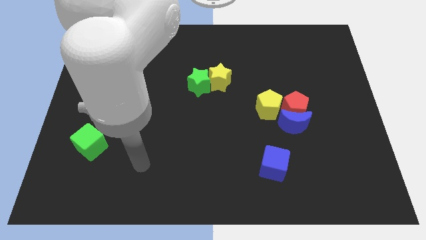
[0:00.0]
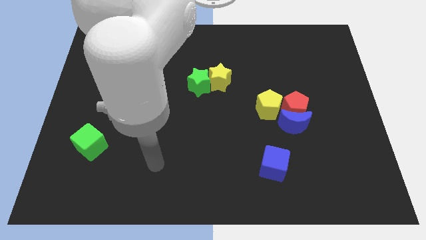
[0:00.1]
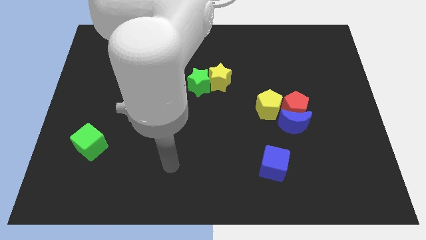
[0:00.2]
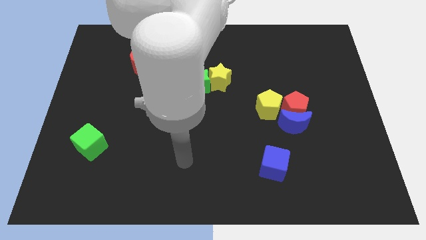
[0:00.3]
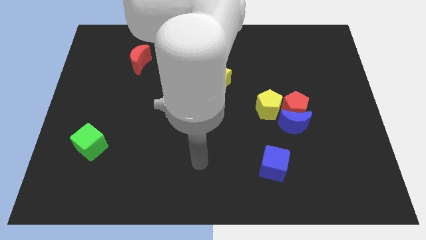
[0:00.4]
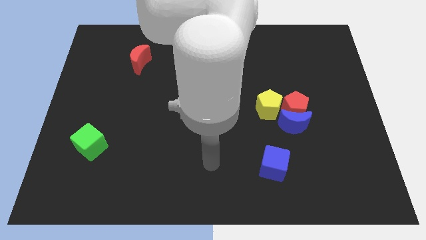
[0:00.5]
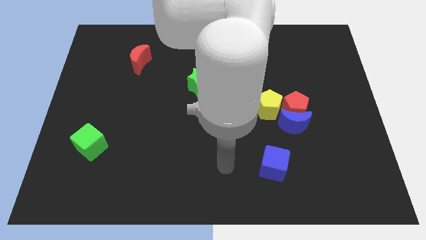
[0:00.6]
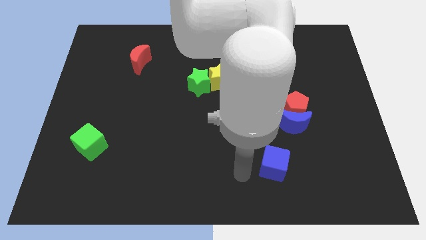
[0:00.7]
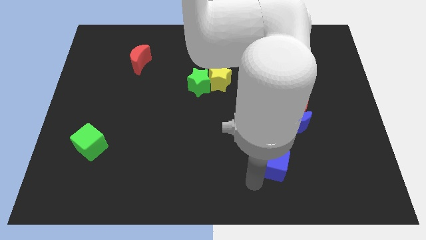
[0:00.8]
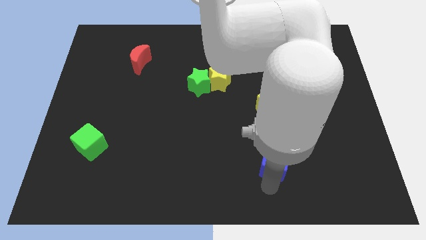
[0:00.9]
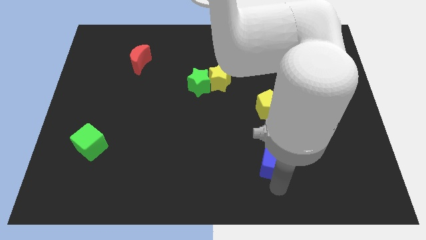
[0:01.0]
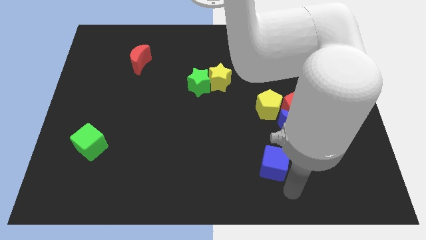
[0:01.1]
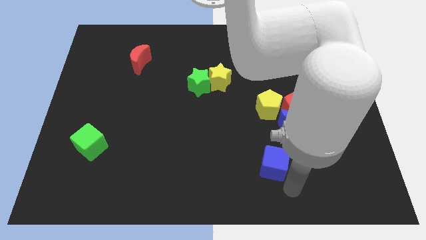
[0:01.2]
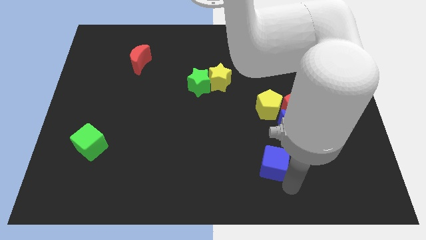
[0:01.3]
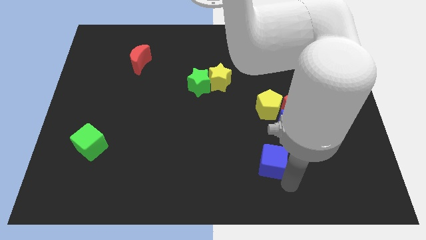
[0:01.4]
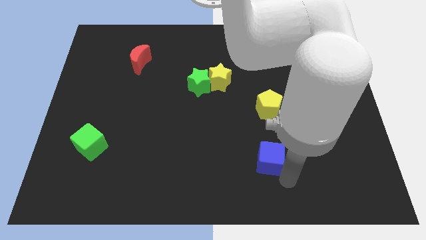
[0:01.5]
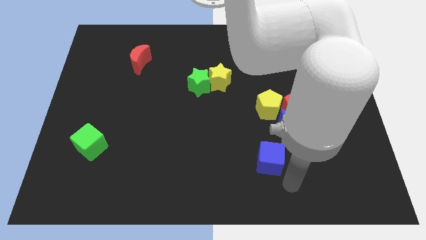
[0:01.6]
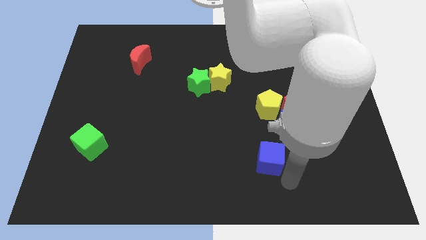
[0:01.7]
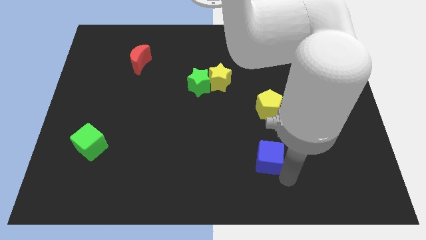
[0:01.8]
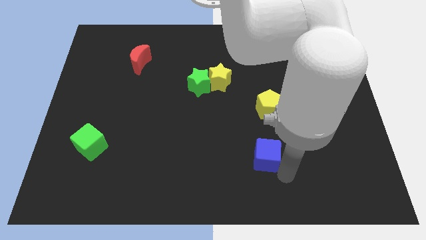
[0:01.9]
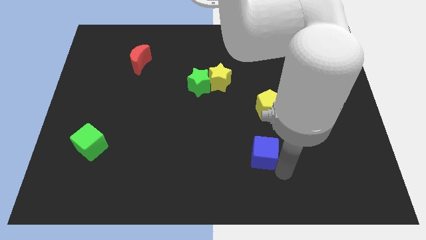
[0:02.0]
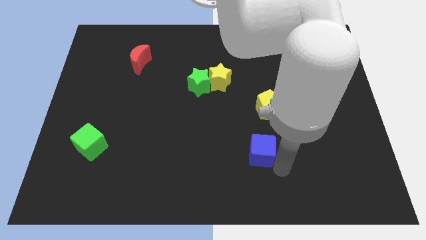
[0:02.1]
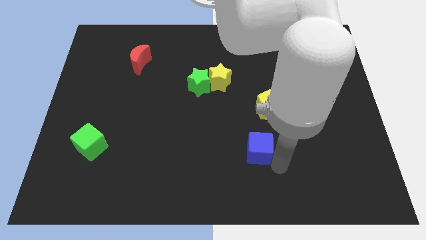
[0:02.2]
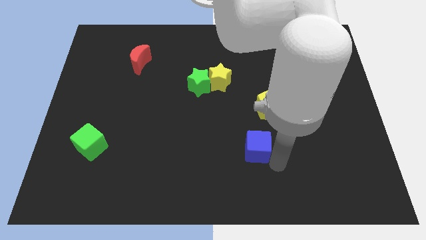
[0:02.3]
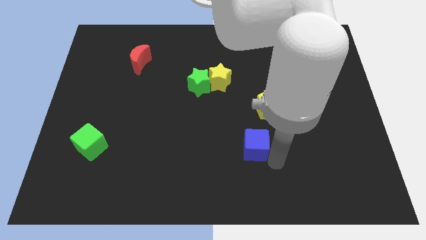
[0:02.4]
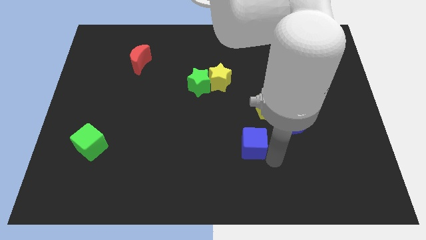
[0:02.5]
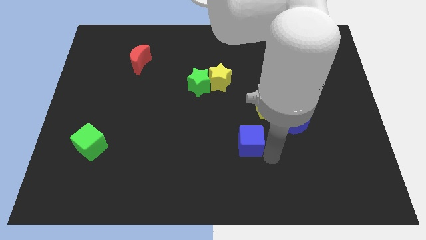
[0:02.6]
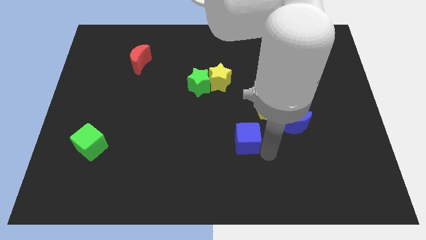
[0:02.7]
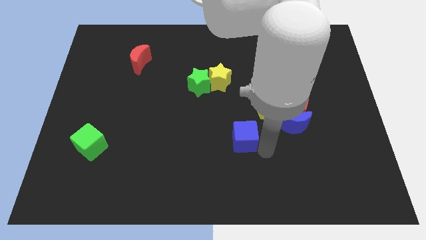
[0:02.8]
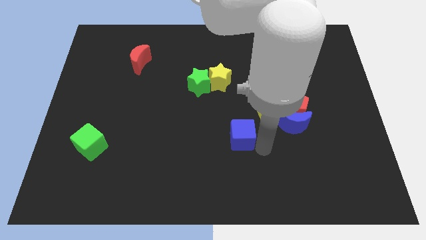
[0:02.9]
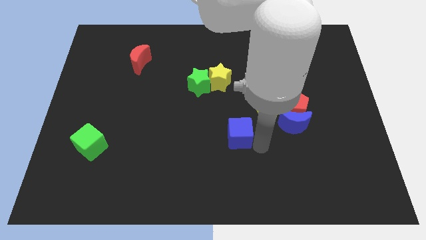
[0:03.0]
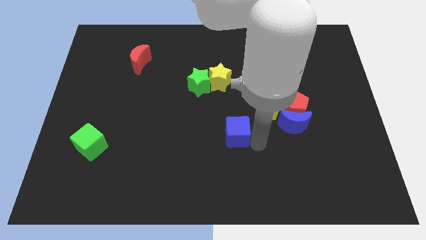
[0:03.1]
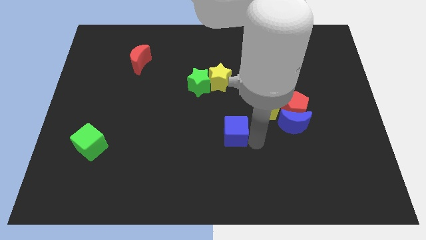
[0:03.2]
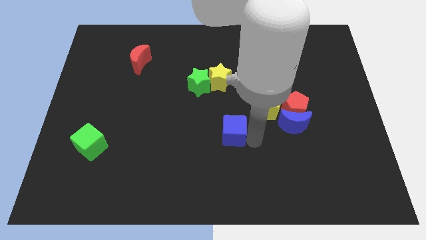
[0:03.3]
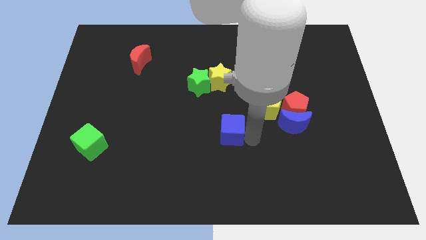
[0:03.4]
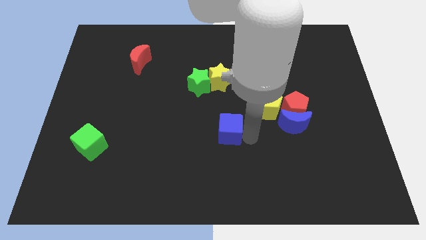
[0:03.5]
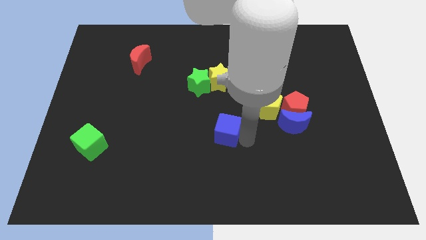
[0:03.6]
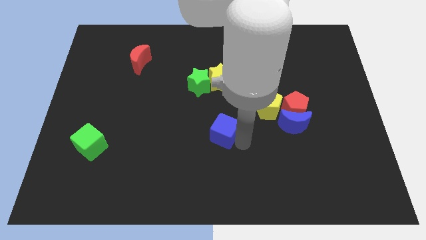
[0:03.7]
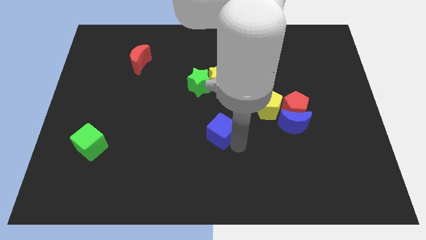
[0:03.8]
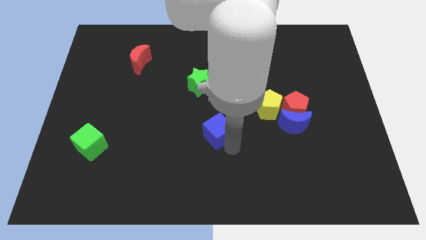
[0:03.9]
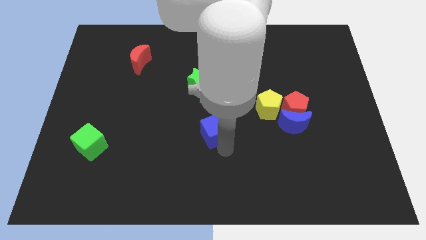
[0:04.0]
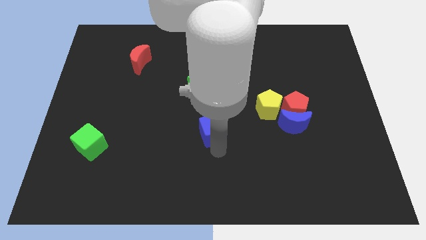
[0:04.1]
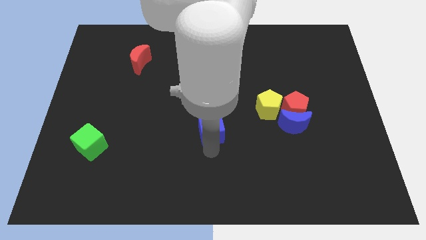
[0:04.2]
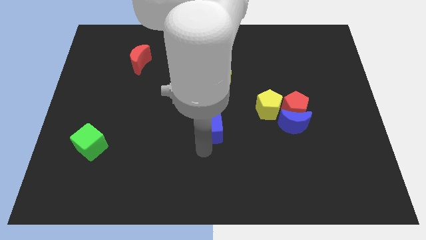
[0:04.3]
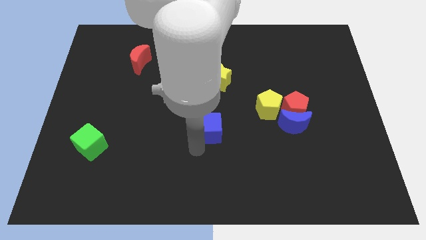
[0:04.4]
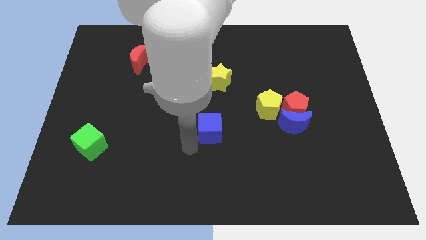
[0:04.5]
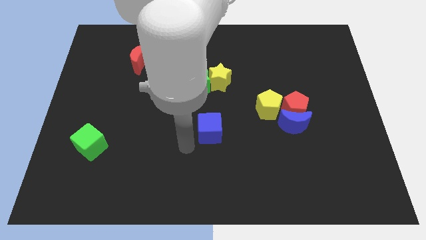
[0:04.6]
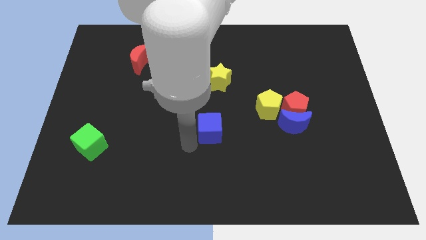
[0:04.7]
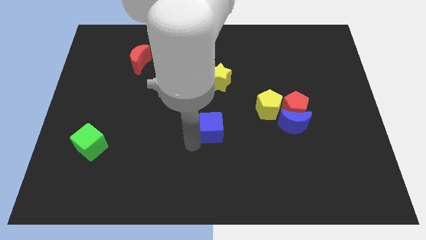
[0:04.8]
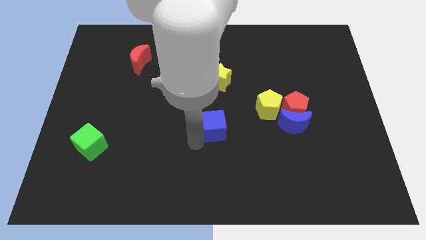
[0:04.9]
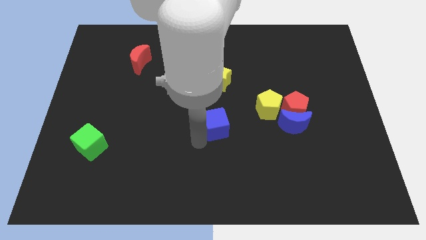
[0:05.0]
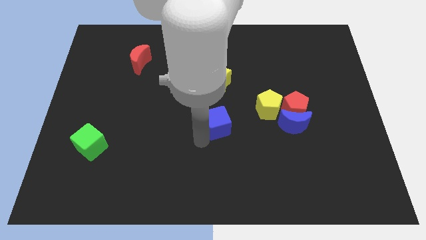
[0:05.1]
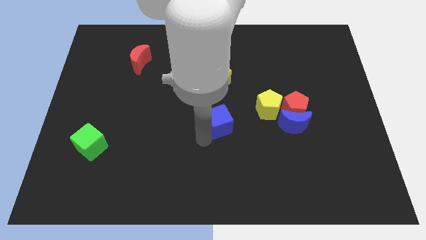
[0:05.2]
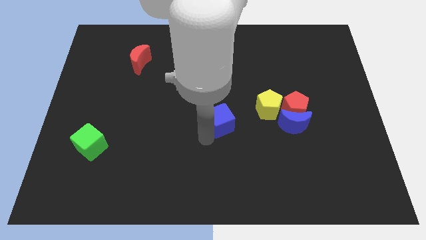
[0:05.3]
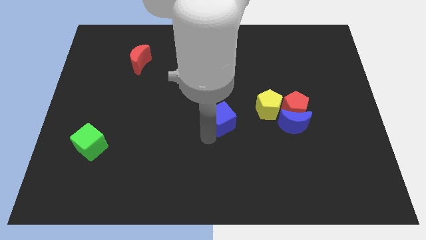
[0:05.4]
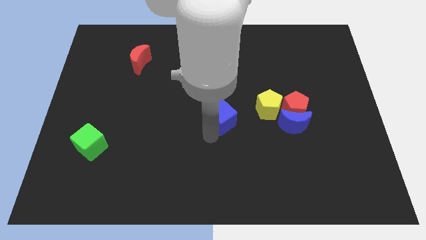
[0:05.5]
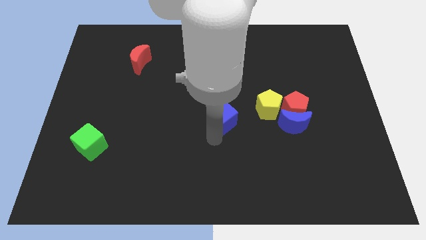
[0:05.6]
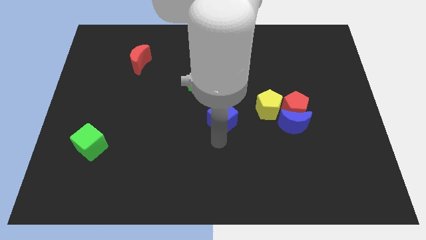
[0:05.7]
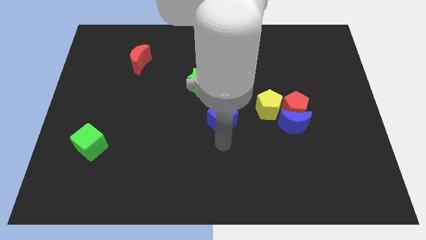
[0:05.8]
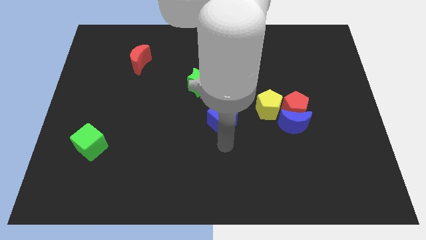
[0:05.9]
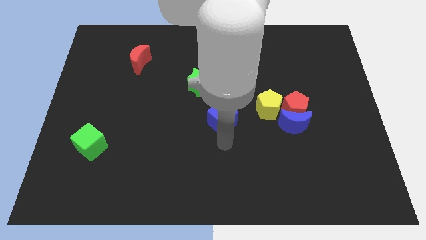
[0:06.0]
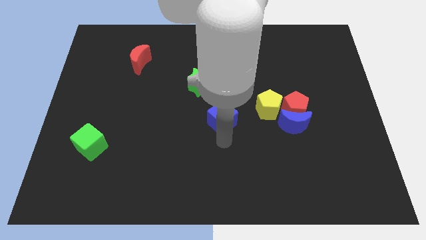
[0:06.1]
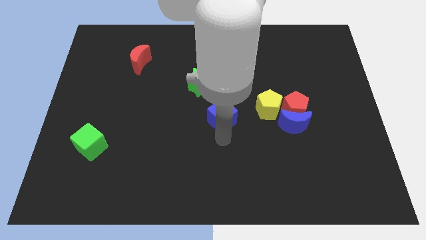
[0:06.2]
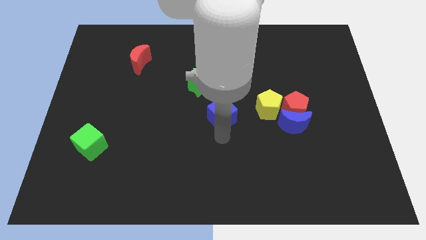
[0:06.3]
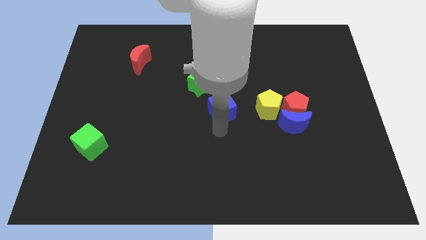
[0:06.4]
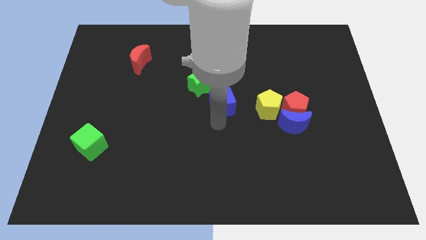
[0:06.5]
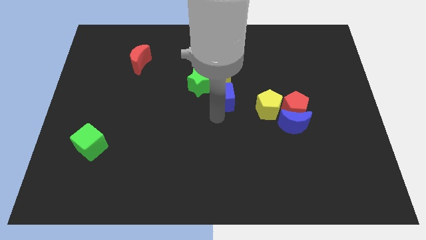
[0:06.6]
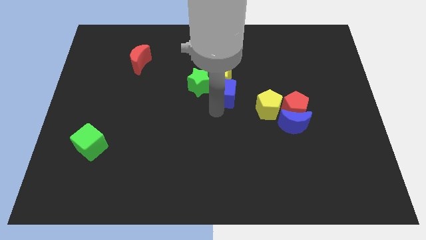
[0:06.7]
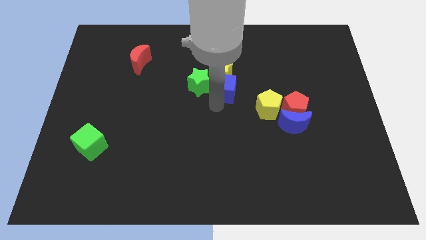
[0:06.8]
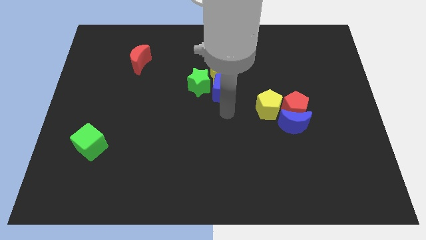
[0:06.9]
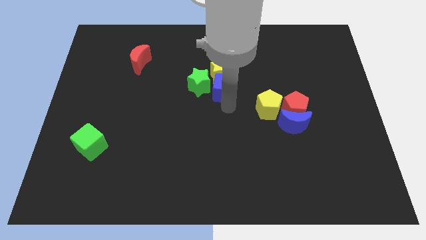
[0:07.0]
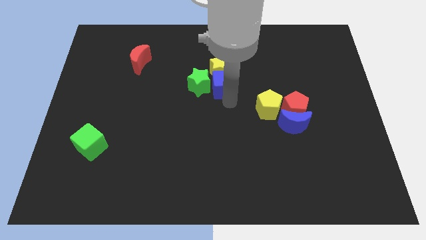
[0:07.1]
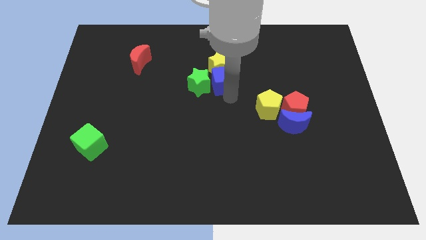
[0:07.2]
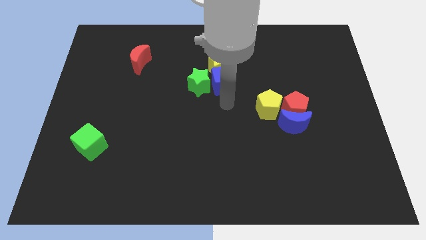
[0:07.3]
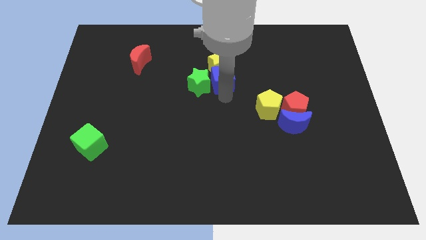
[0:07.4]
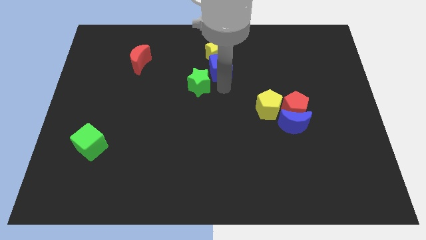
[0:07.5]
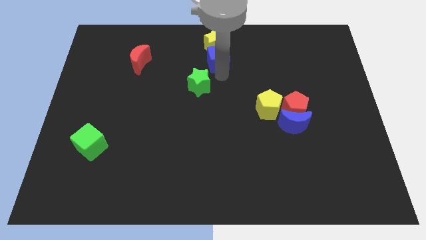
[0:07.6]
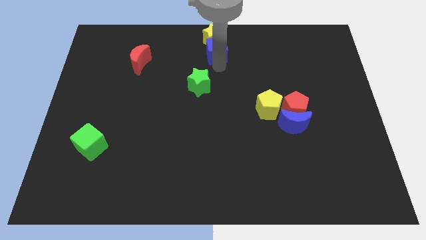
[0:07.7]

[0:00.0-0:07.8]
move the blue cube to the top side
